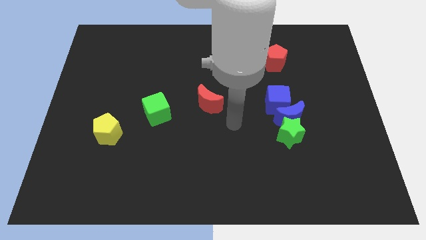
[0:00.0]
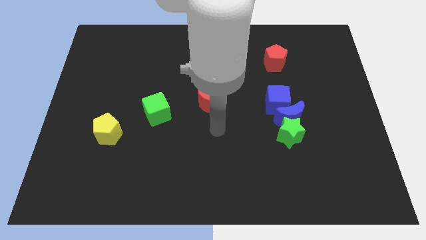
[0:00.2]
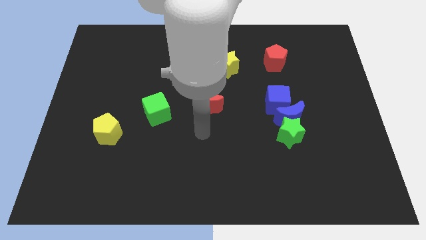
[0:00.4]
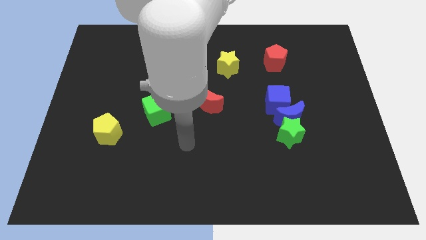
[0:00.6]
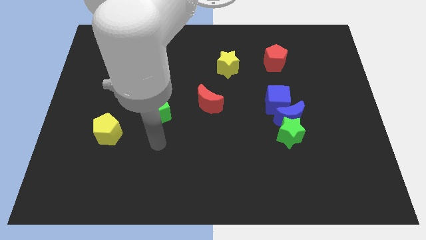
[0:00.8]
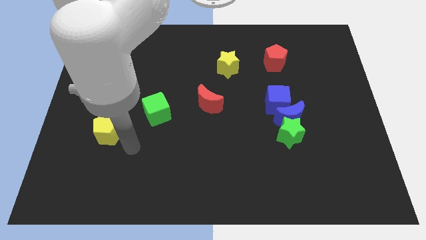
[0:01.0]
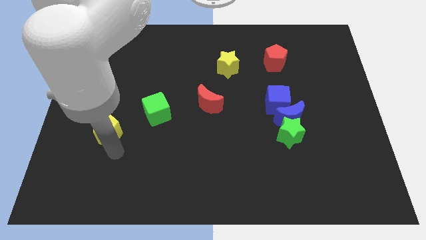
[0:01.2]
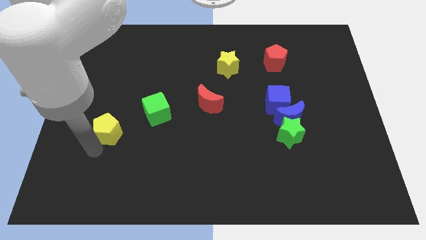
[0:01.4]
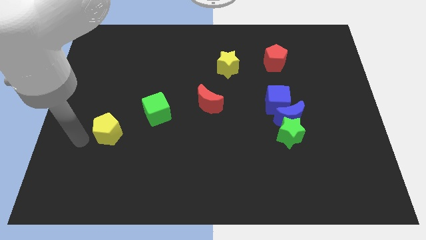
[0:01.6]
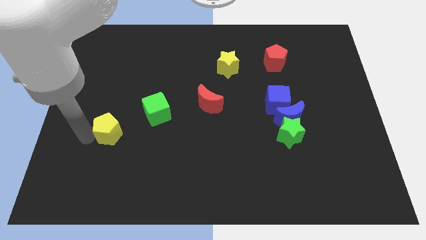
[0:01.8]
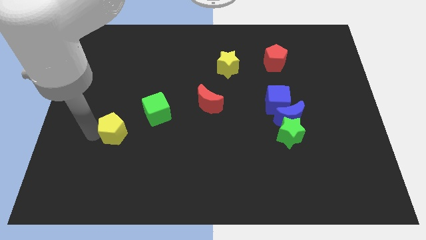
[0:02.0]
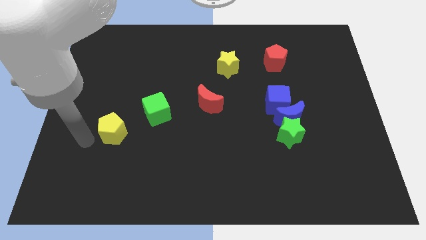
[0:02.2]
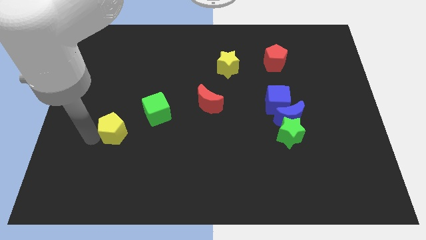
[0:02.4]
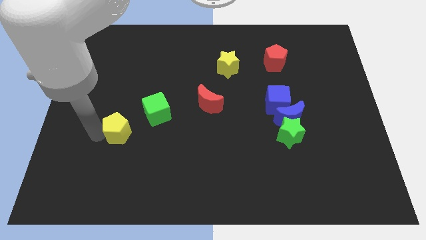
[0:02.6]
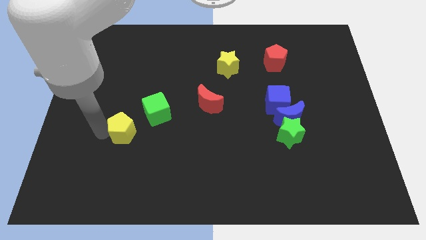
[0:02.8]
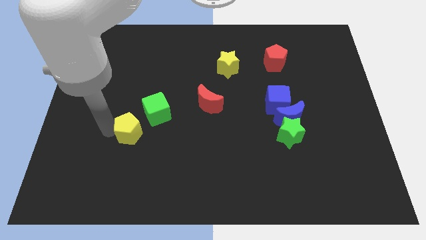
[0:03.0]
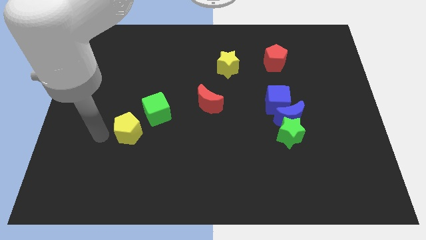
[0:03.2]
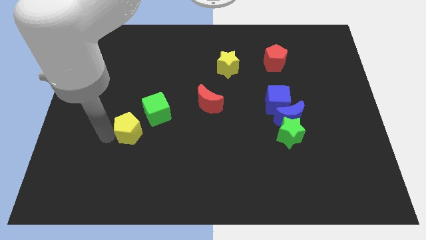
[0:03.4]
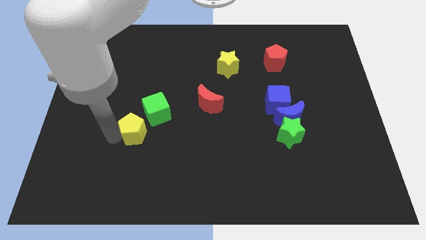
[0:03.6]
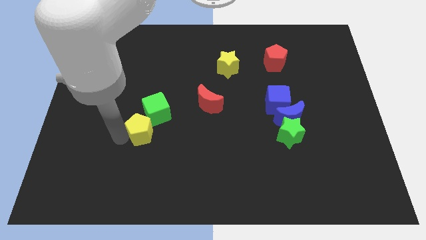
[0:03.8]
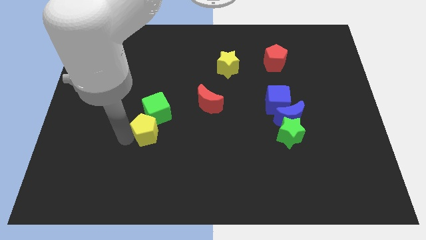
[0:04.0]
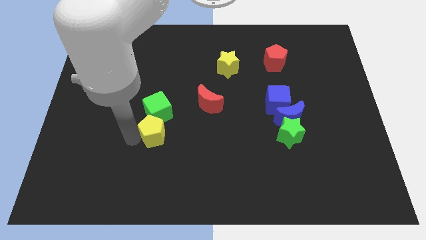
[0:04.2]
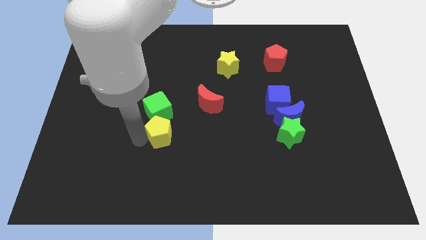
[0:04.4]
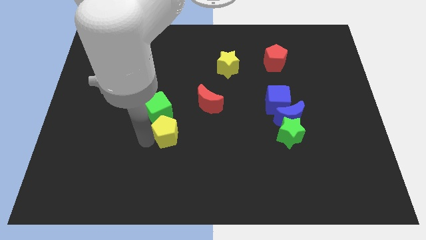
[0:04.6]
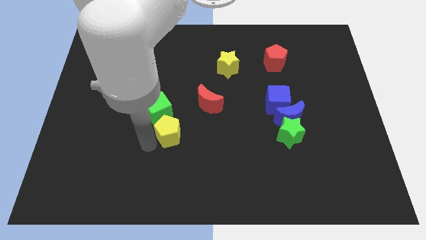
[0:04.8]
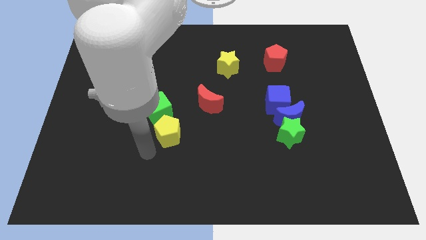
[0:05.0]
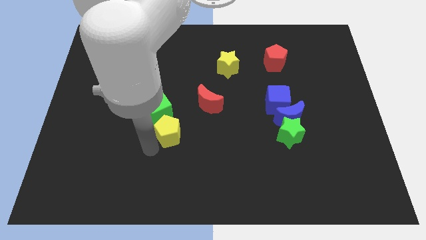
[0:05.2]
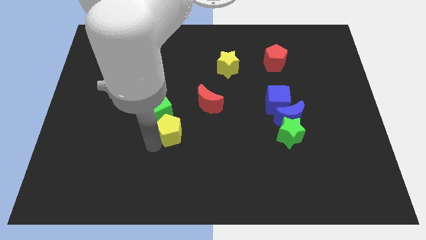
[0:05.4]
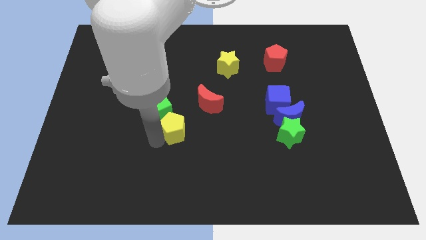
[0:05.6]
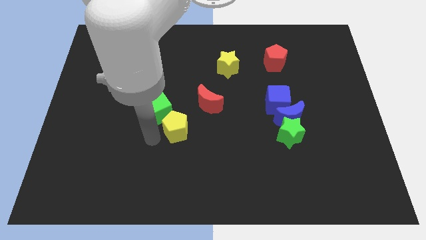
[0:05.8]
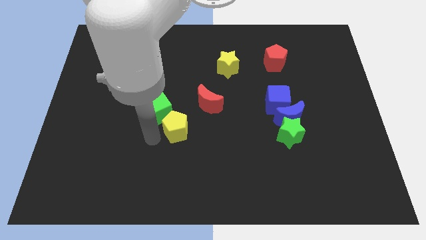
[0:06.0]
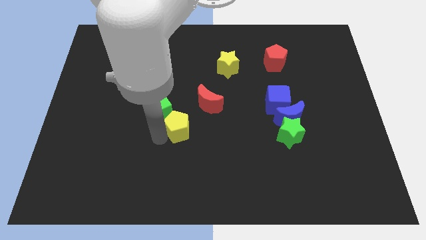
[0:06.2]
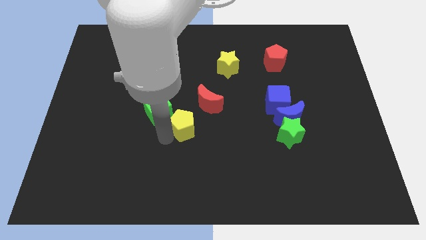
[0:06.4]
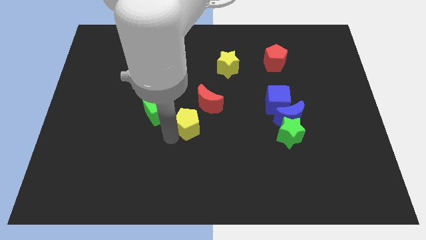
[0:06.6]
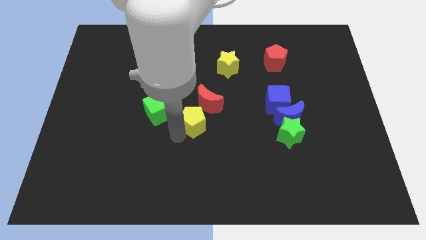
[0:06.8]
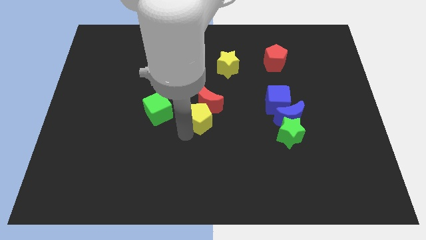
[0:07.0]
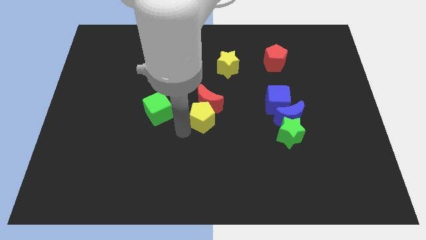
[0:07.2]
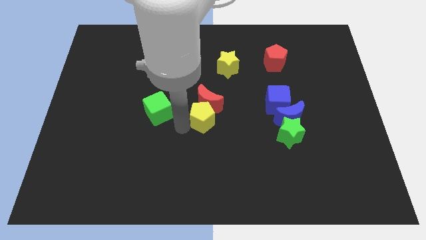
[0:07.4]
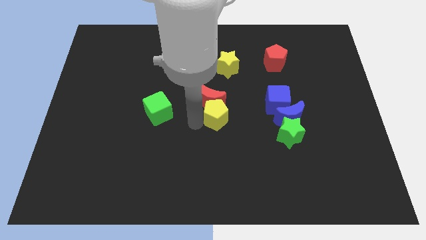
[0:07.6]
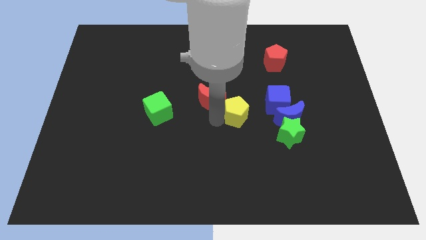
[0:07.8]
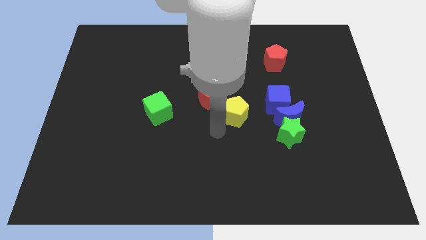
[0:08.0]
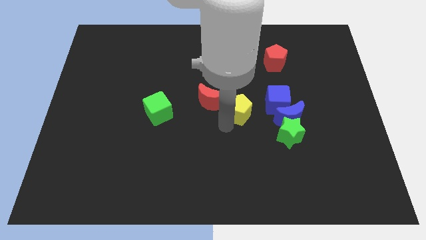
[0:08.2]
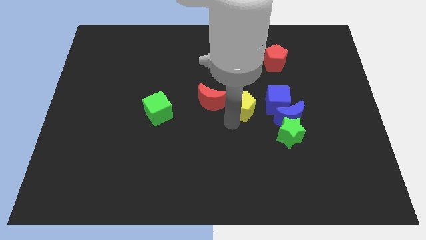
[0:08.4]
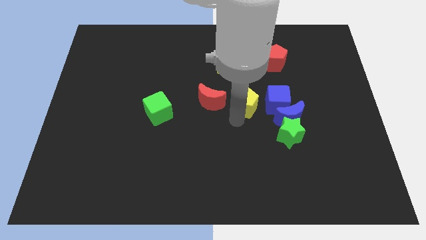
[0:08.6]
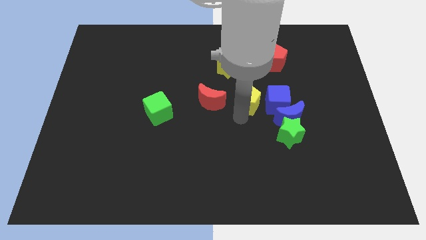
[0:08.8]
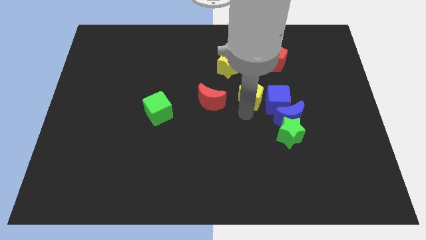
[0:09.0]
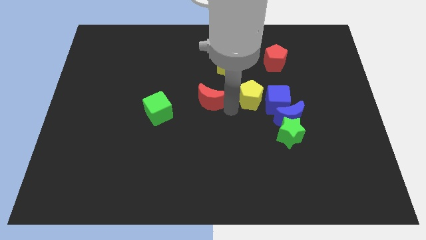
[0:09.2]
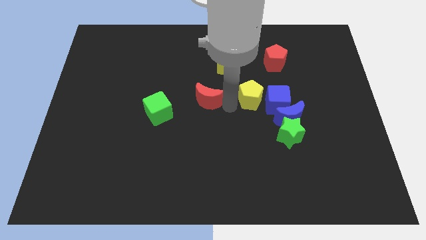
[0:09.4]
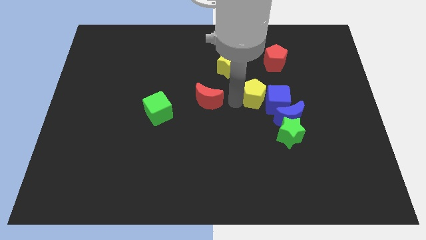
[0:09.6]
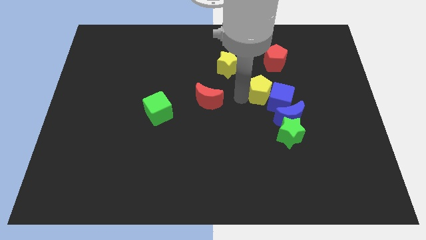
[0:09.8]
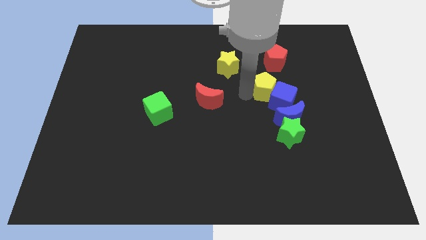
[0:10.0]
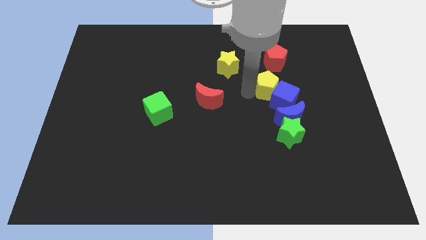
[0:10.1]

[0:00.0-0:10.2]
push the yellow pentagon above the blue moon

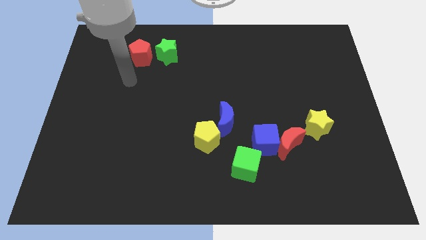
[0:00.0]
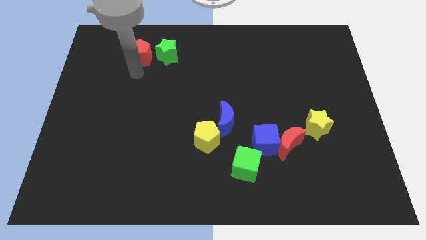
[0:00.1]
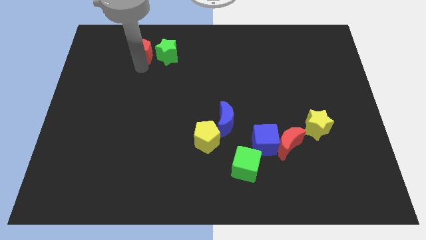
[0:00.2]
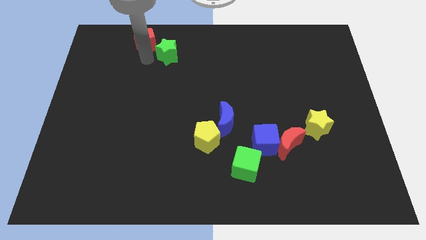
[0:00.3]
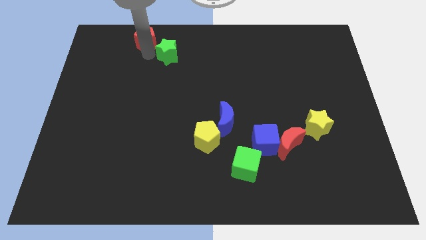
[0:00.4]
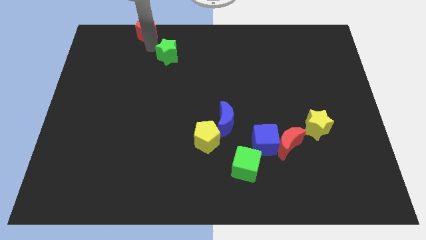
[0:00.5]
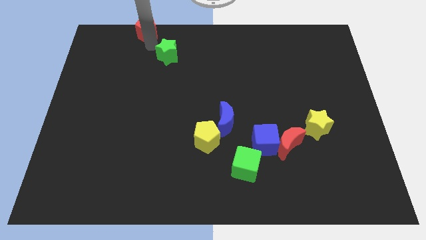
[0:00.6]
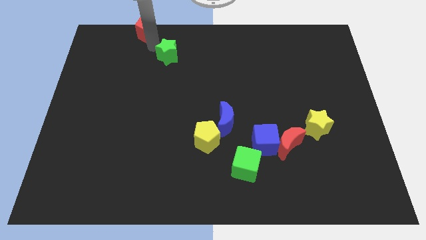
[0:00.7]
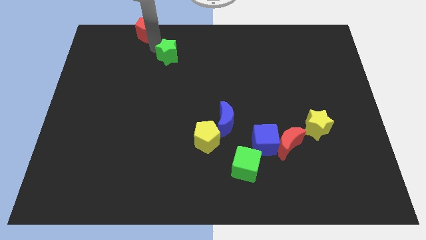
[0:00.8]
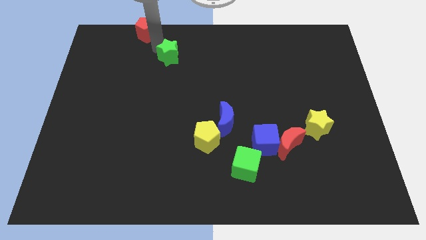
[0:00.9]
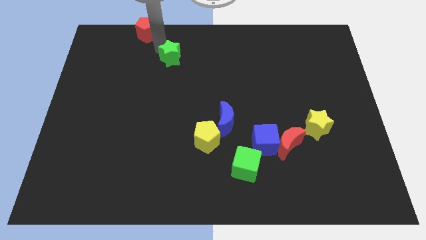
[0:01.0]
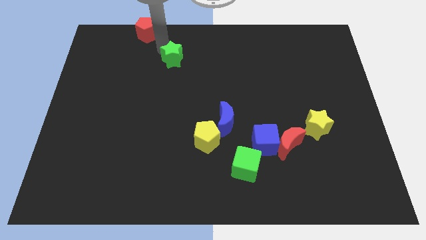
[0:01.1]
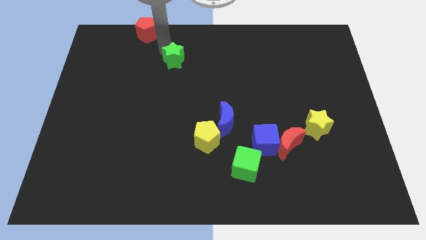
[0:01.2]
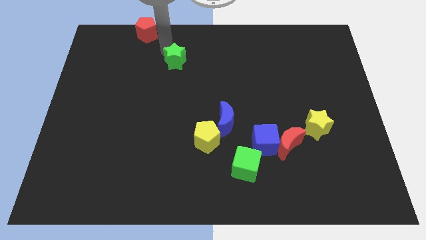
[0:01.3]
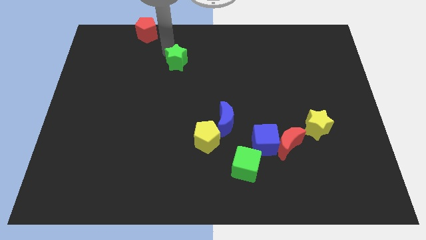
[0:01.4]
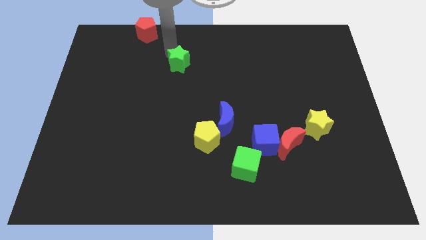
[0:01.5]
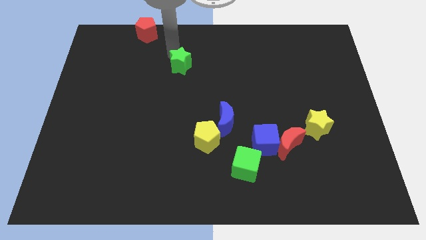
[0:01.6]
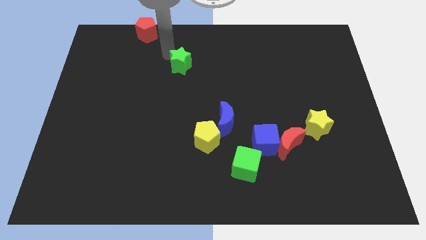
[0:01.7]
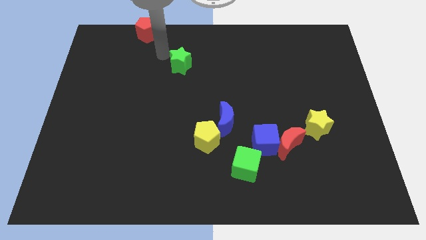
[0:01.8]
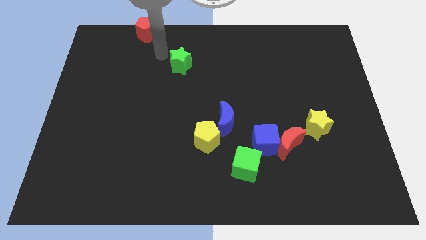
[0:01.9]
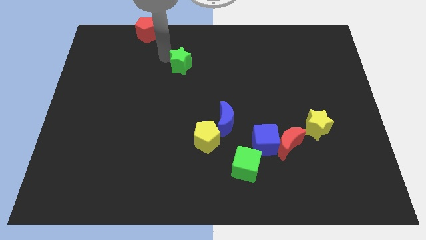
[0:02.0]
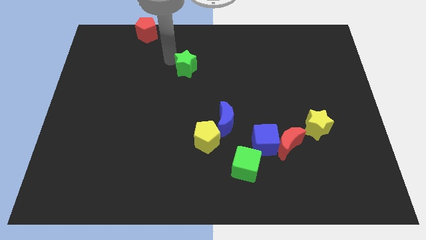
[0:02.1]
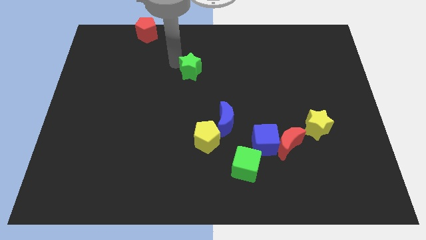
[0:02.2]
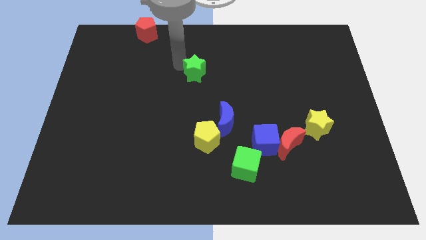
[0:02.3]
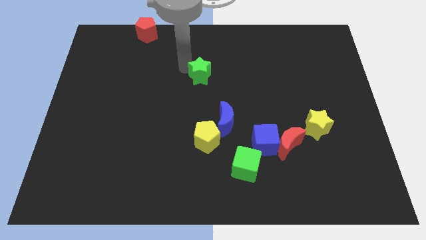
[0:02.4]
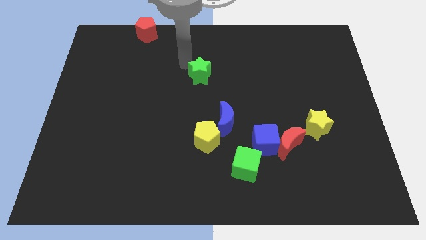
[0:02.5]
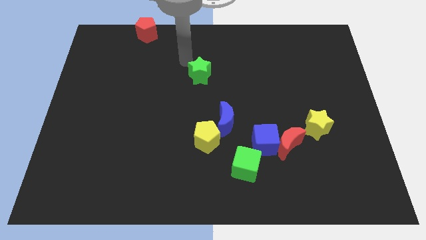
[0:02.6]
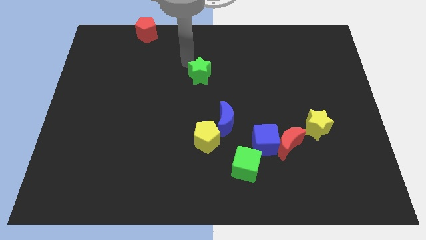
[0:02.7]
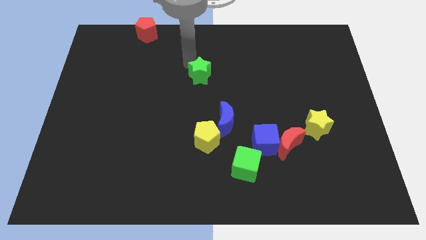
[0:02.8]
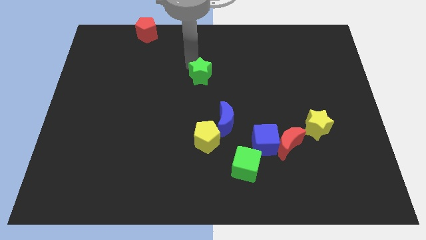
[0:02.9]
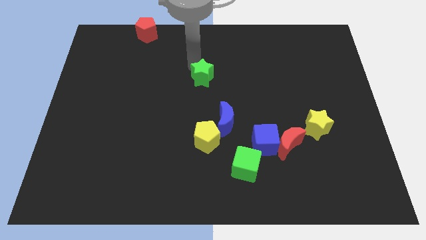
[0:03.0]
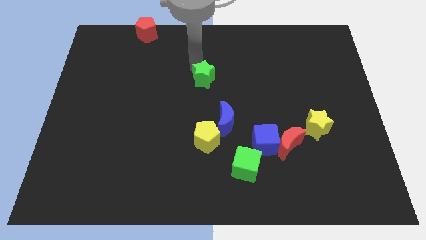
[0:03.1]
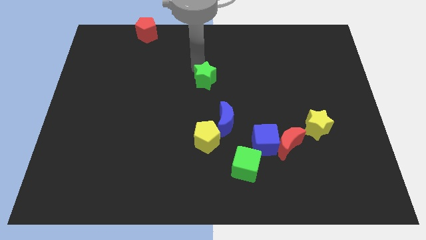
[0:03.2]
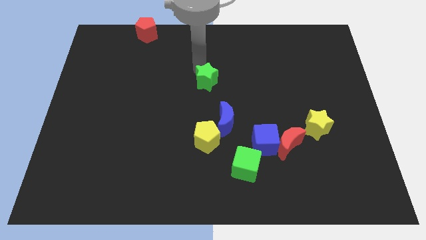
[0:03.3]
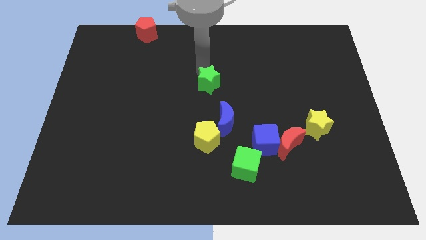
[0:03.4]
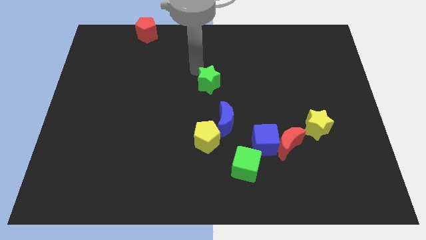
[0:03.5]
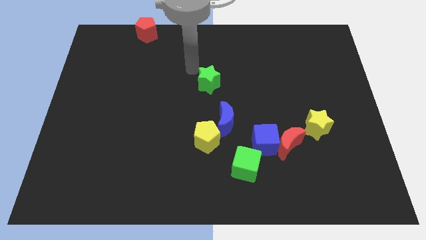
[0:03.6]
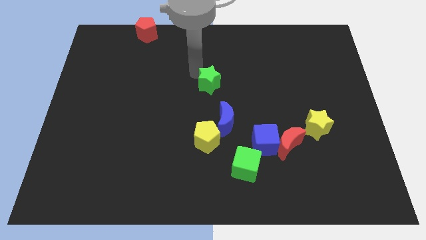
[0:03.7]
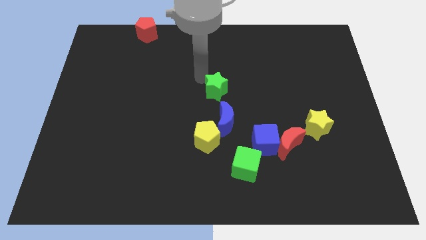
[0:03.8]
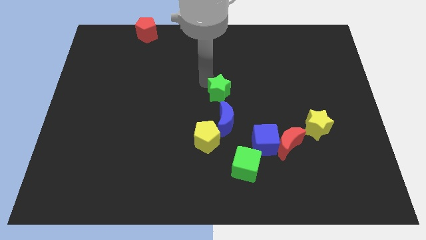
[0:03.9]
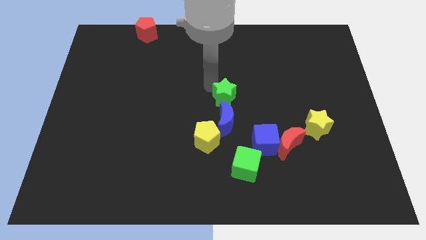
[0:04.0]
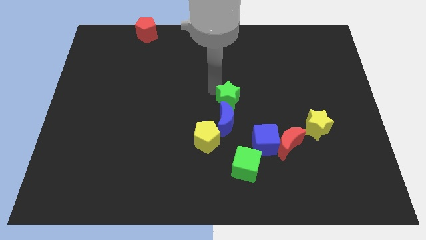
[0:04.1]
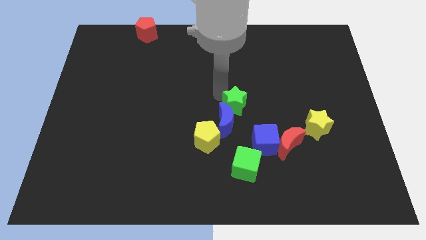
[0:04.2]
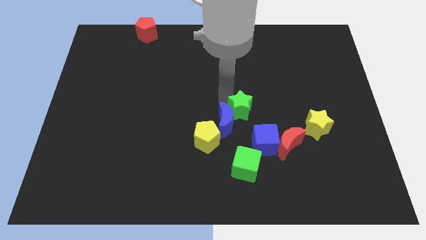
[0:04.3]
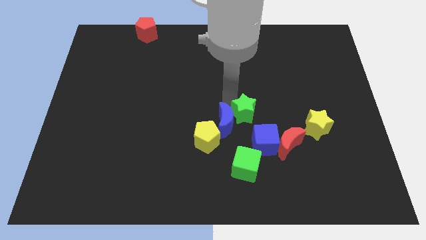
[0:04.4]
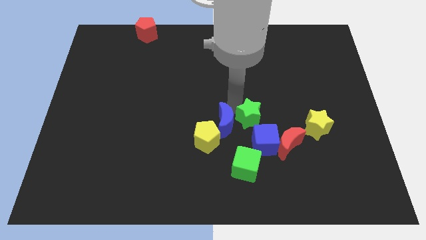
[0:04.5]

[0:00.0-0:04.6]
move the green star left of the yellow star
